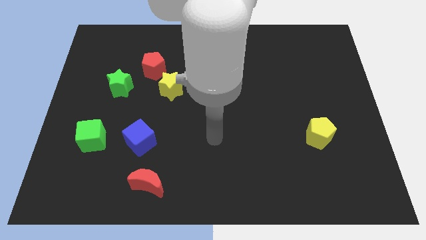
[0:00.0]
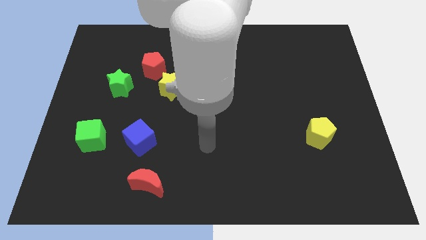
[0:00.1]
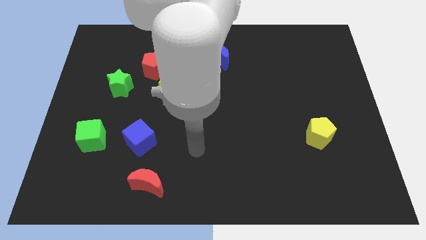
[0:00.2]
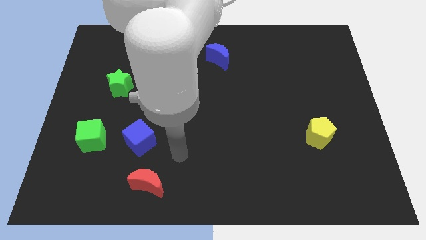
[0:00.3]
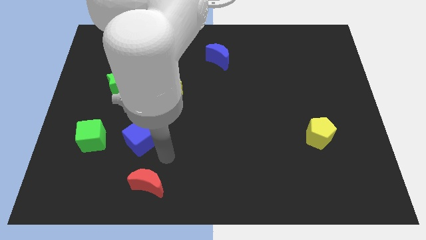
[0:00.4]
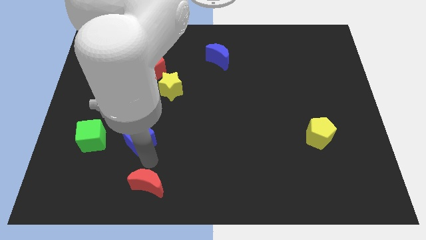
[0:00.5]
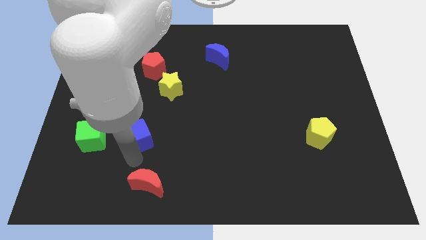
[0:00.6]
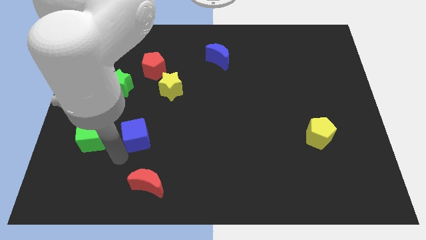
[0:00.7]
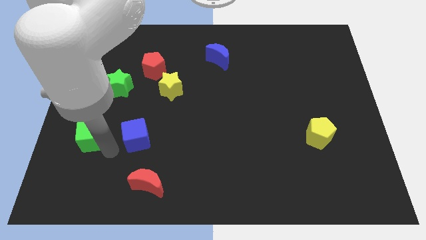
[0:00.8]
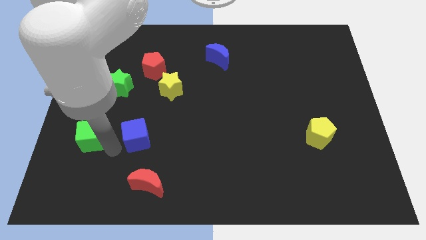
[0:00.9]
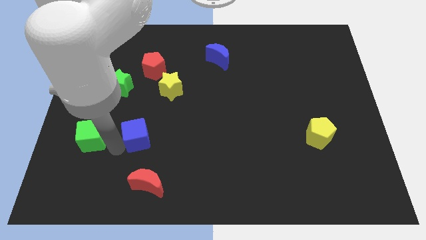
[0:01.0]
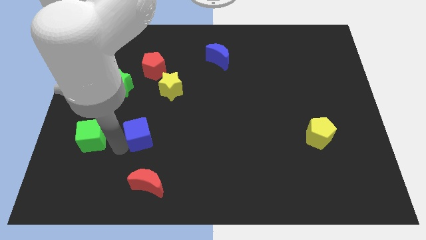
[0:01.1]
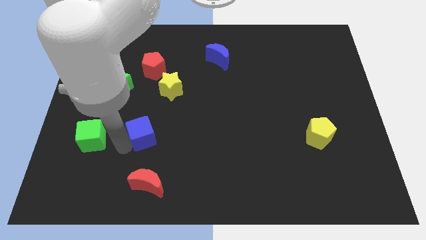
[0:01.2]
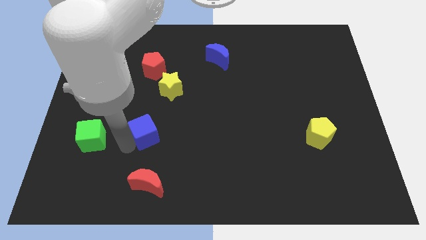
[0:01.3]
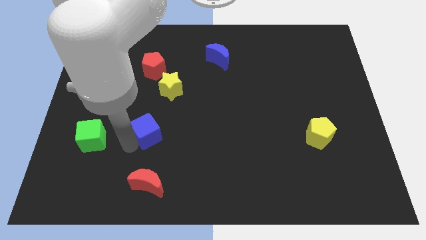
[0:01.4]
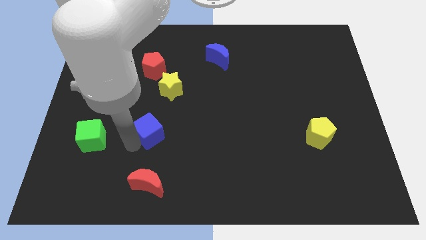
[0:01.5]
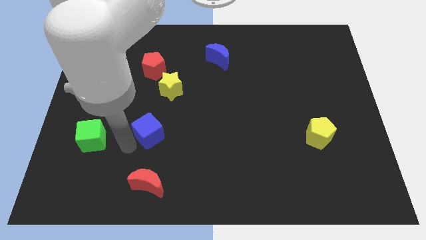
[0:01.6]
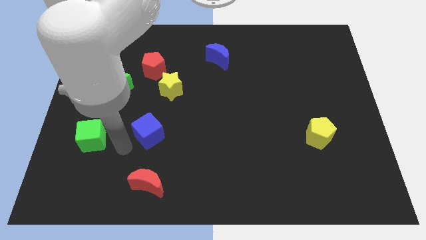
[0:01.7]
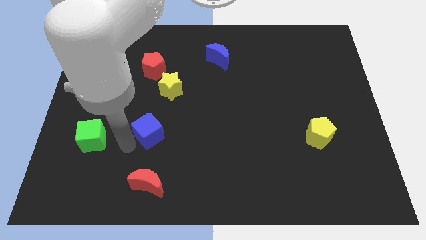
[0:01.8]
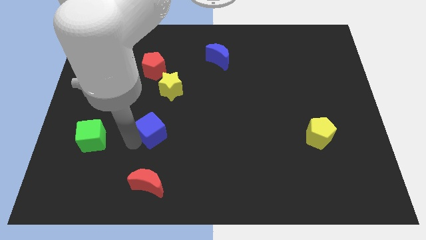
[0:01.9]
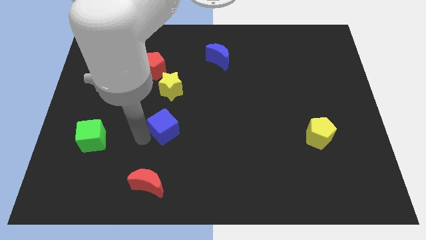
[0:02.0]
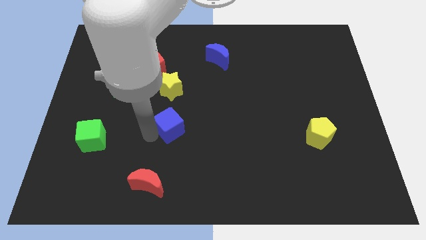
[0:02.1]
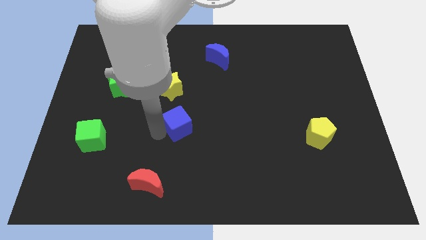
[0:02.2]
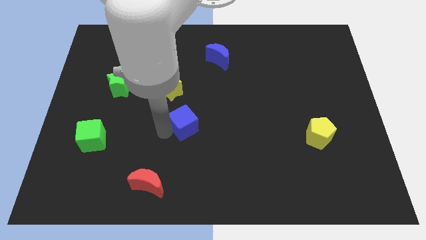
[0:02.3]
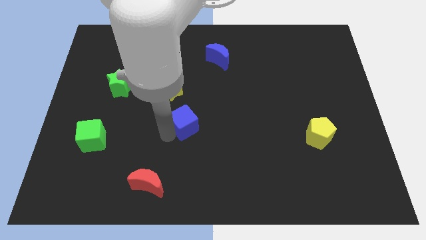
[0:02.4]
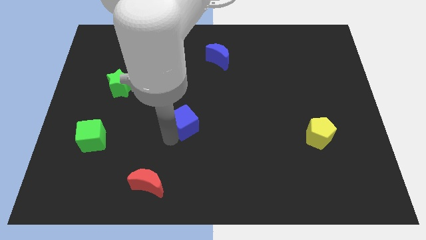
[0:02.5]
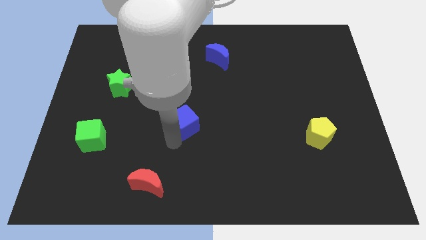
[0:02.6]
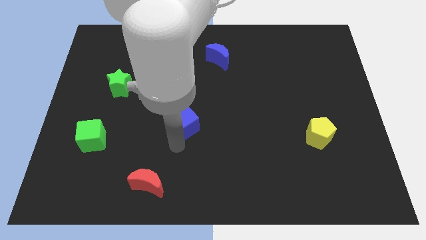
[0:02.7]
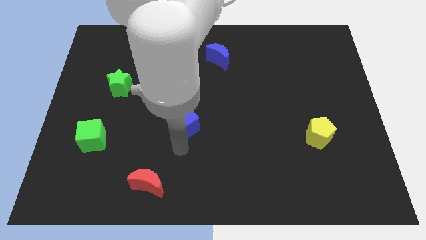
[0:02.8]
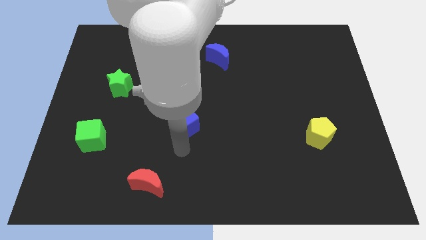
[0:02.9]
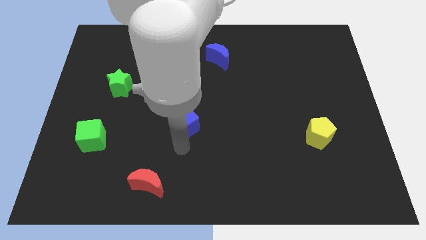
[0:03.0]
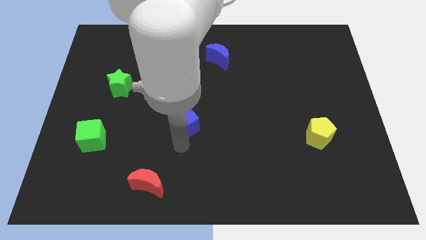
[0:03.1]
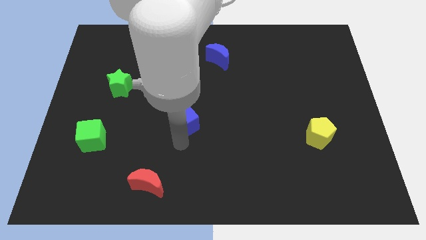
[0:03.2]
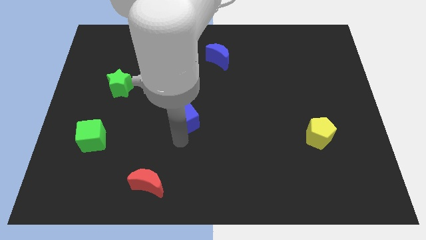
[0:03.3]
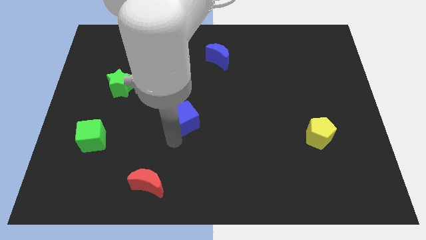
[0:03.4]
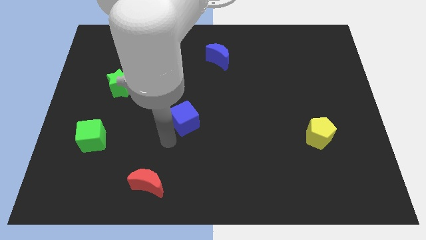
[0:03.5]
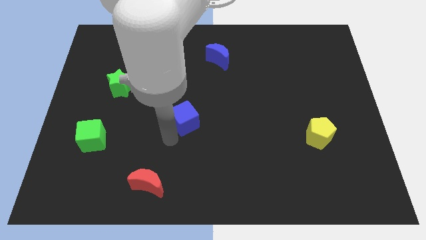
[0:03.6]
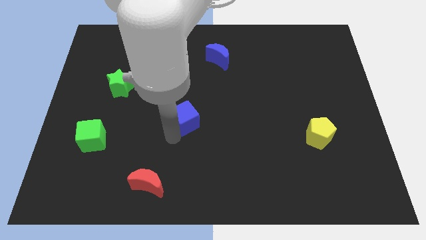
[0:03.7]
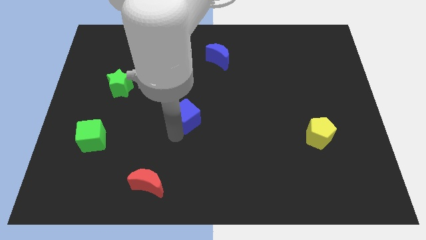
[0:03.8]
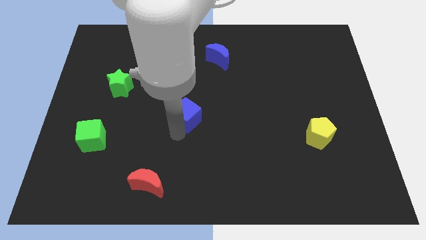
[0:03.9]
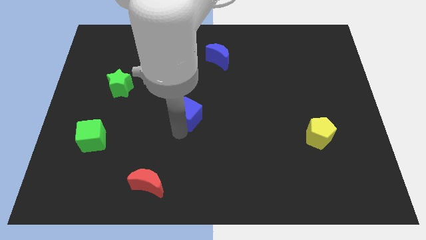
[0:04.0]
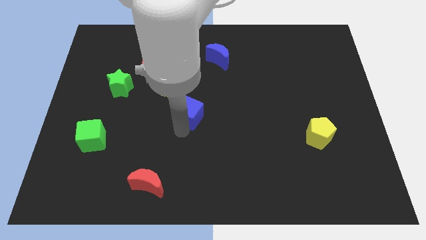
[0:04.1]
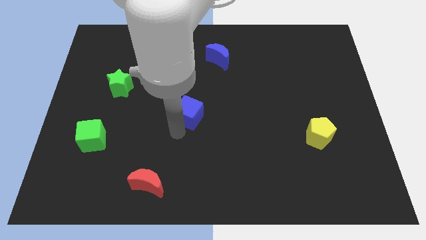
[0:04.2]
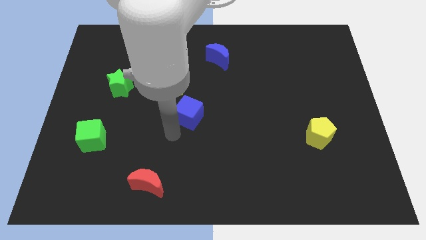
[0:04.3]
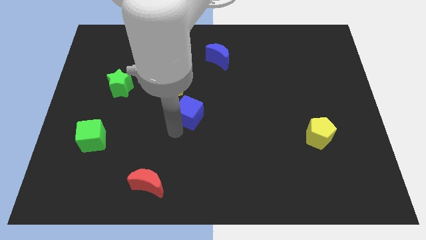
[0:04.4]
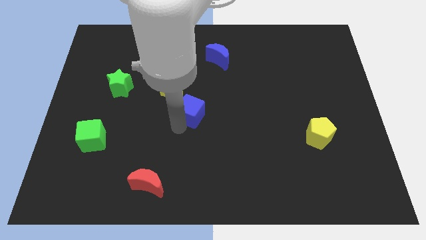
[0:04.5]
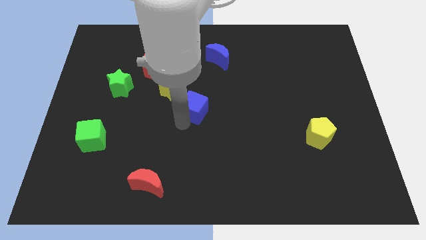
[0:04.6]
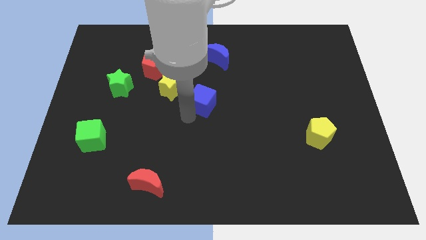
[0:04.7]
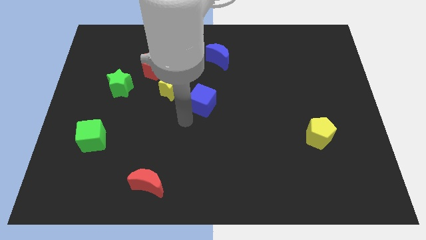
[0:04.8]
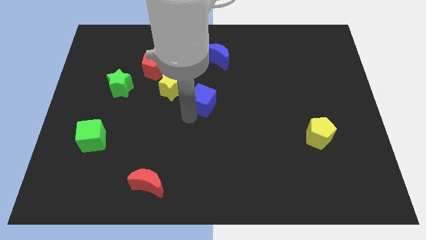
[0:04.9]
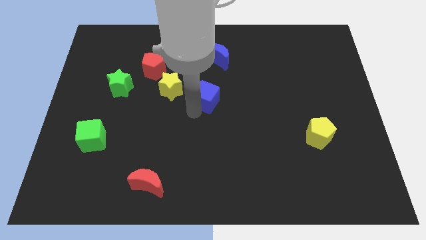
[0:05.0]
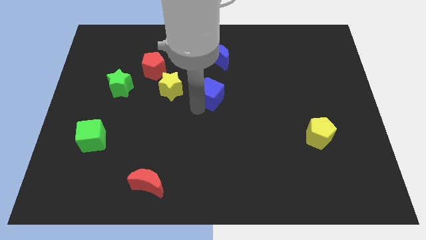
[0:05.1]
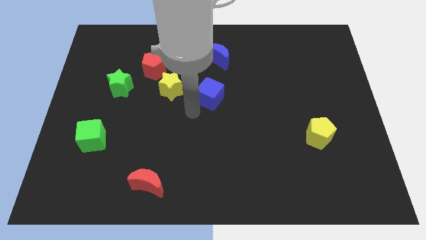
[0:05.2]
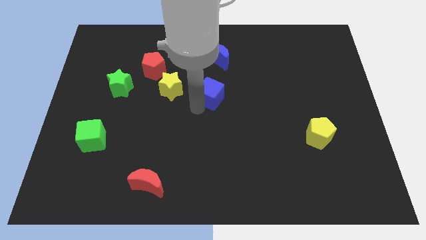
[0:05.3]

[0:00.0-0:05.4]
slide the blue cube upwards and then to the right

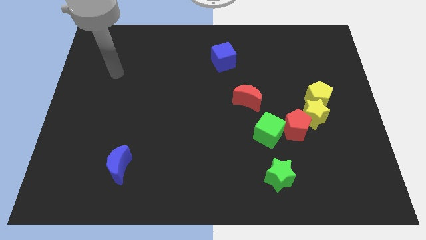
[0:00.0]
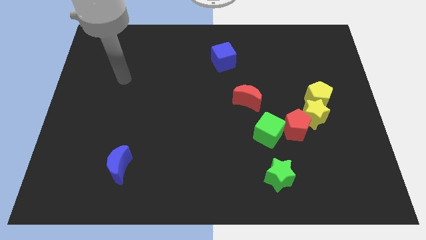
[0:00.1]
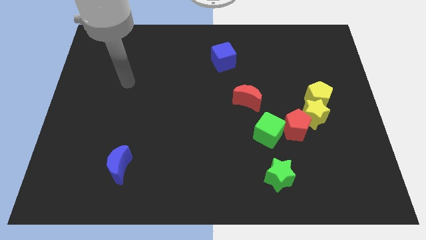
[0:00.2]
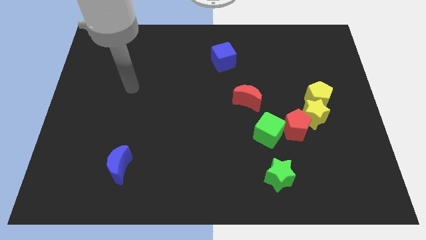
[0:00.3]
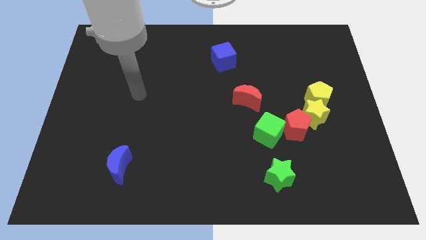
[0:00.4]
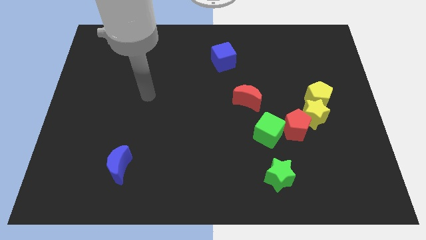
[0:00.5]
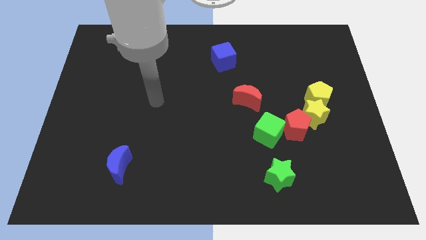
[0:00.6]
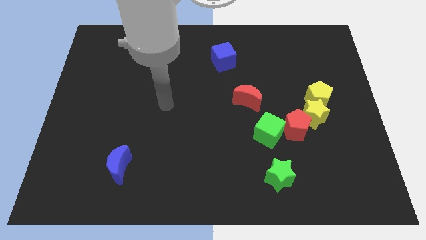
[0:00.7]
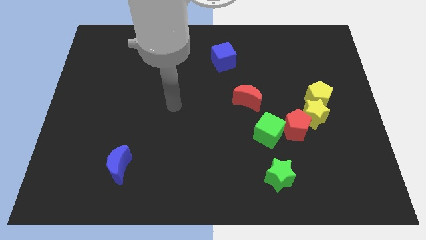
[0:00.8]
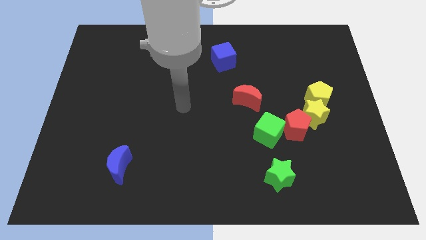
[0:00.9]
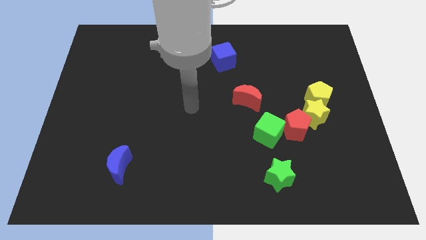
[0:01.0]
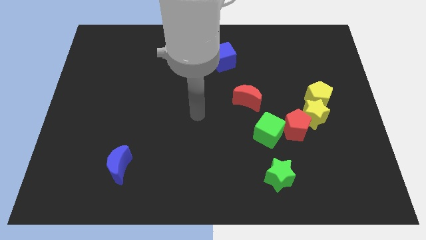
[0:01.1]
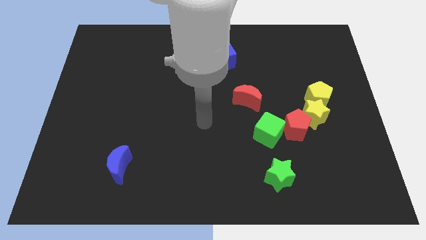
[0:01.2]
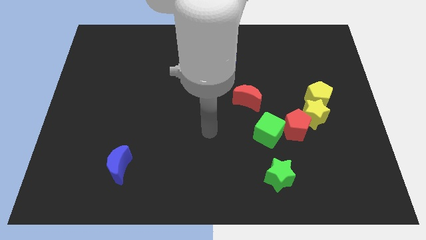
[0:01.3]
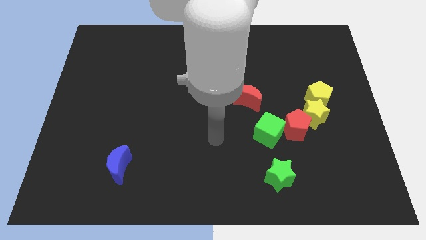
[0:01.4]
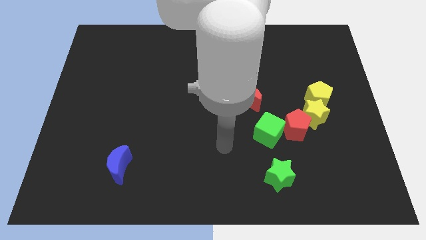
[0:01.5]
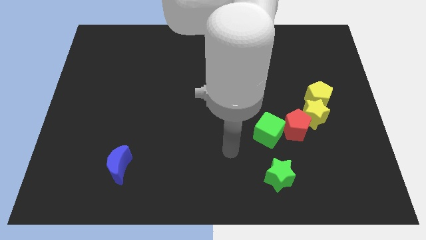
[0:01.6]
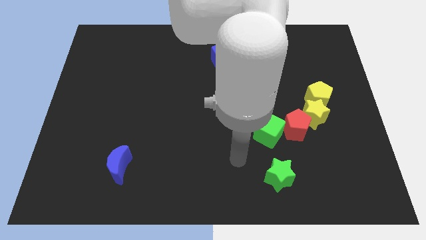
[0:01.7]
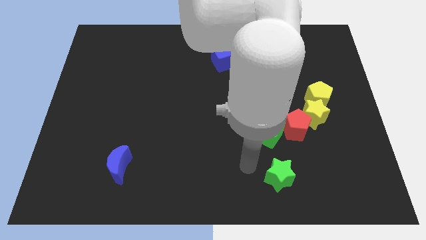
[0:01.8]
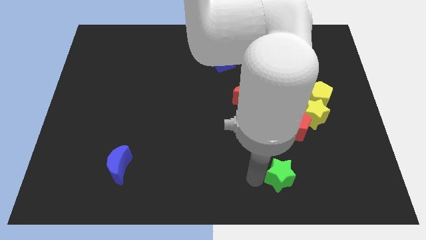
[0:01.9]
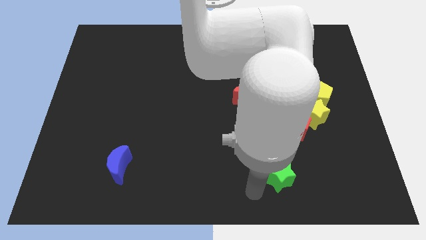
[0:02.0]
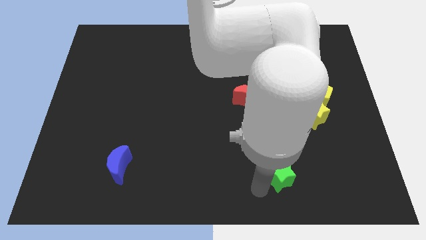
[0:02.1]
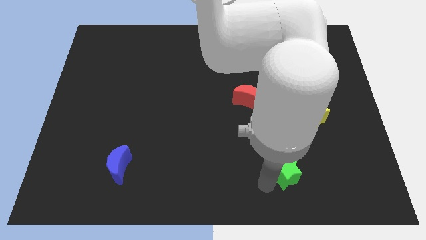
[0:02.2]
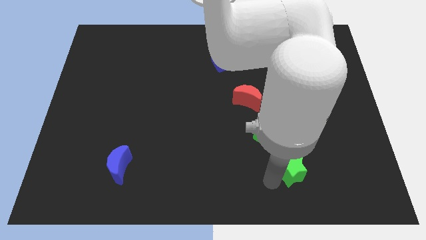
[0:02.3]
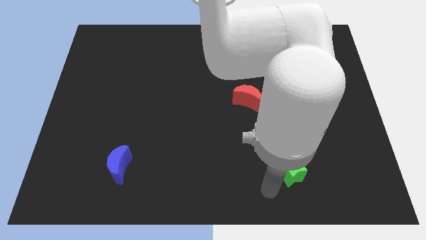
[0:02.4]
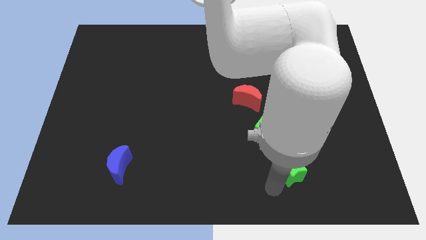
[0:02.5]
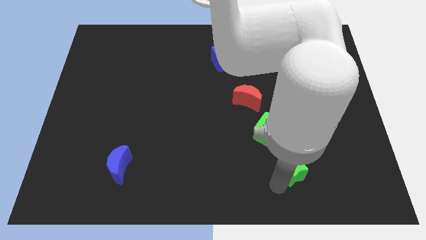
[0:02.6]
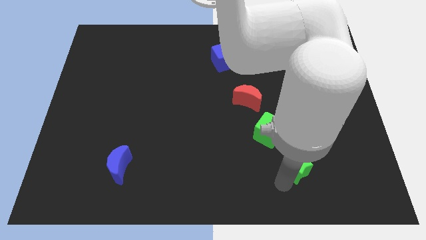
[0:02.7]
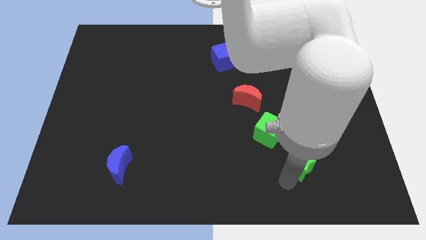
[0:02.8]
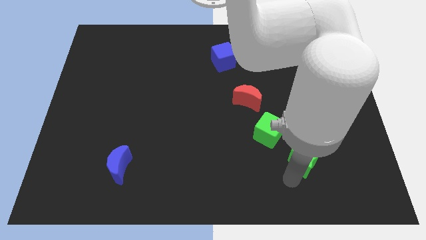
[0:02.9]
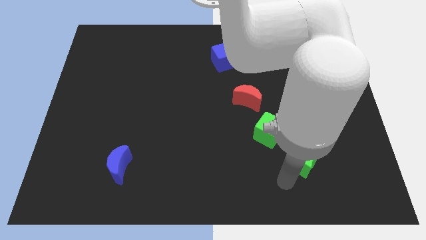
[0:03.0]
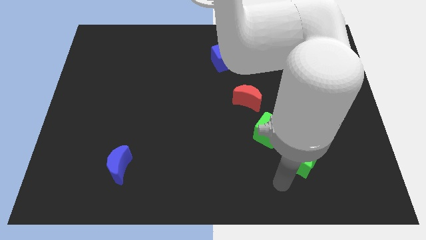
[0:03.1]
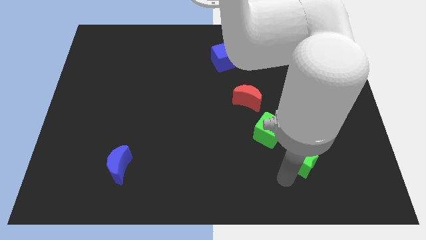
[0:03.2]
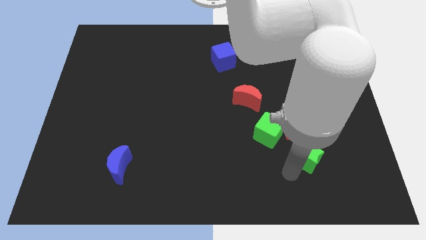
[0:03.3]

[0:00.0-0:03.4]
move the green star a little bit upwards and right
